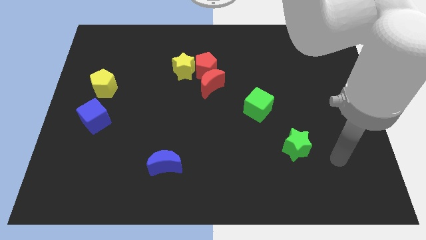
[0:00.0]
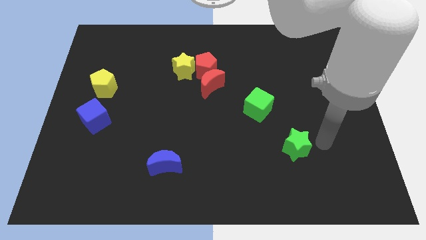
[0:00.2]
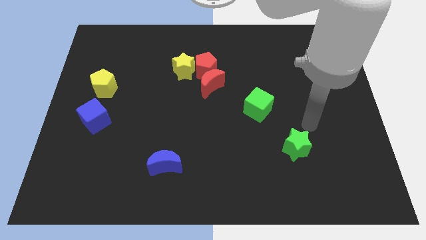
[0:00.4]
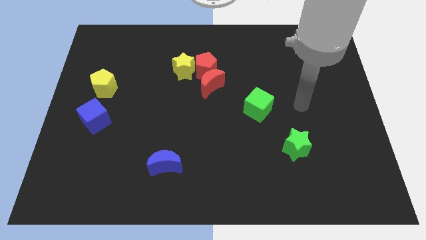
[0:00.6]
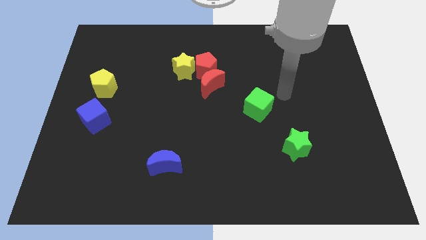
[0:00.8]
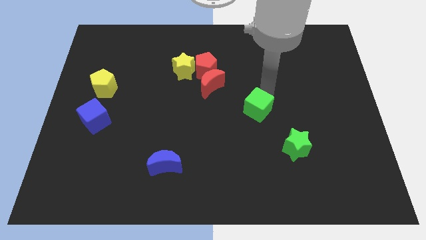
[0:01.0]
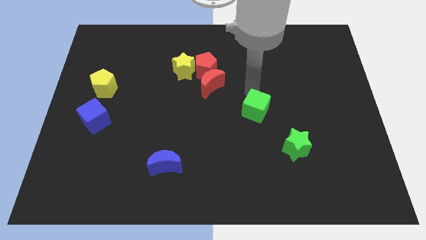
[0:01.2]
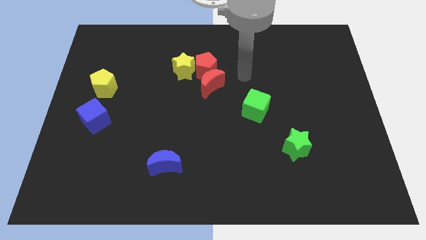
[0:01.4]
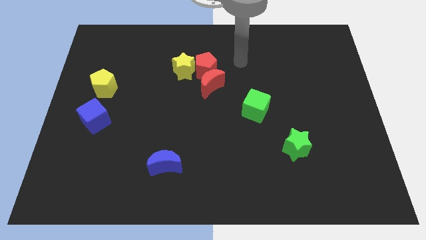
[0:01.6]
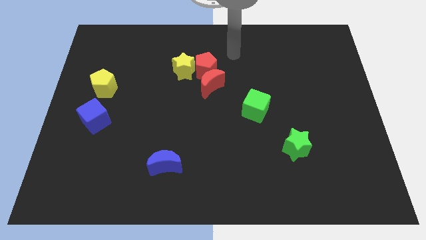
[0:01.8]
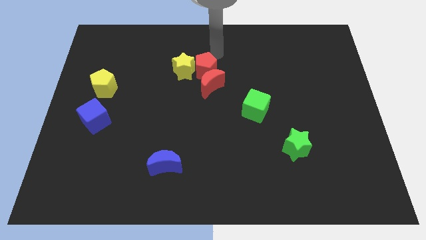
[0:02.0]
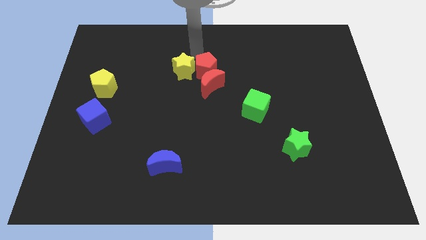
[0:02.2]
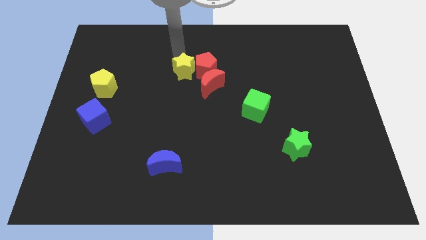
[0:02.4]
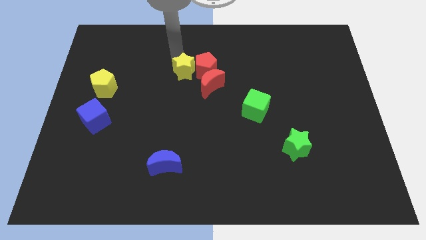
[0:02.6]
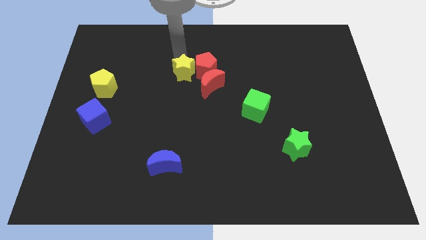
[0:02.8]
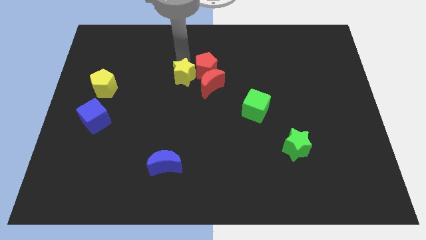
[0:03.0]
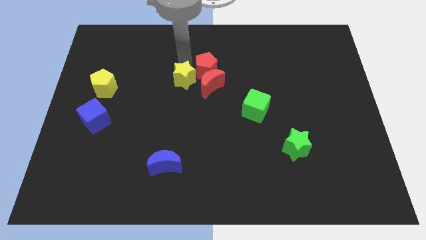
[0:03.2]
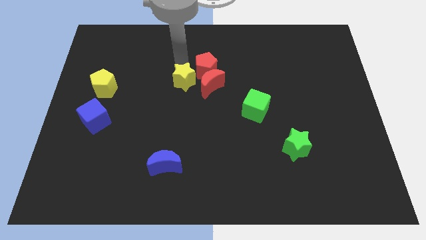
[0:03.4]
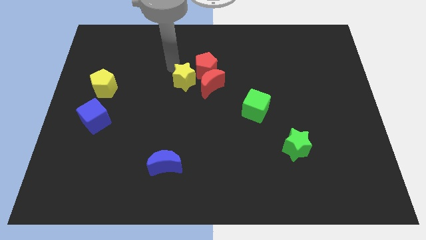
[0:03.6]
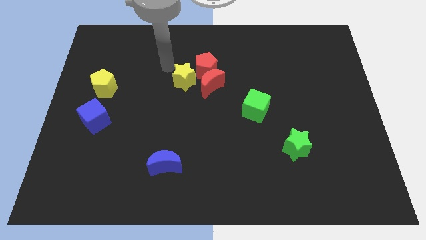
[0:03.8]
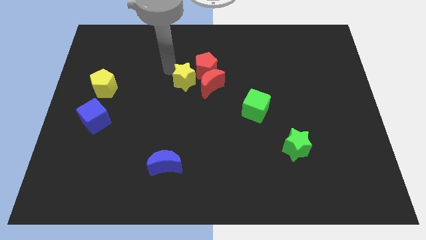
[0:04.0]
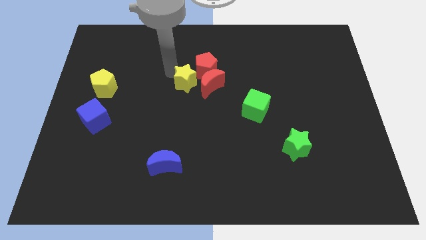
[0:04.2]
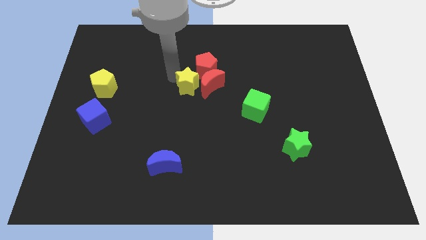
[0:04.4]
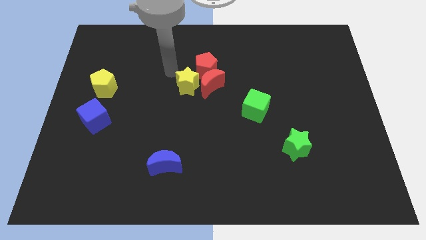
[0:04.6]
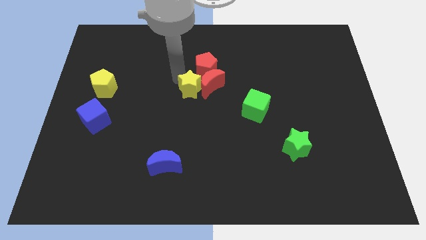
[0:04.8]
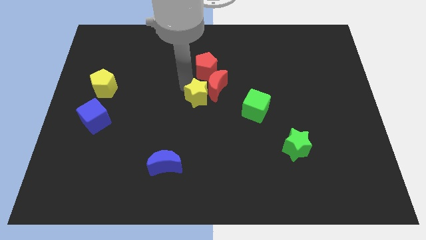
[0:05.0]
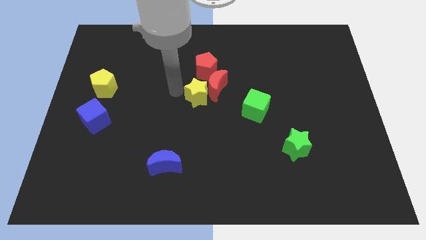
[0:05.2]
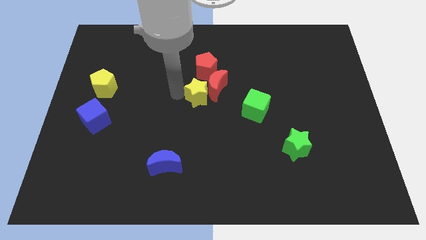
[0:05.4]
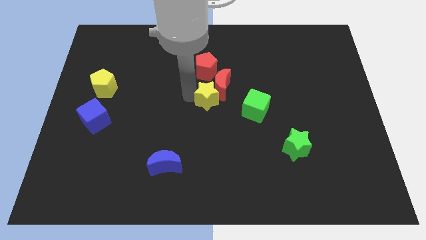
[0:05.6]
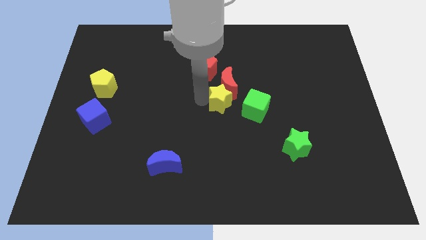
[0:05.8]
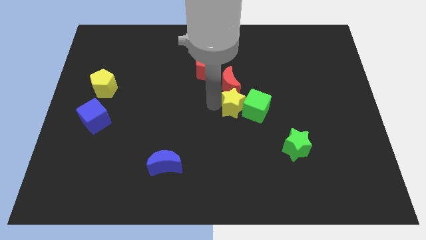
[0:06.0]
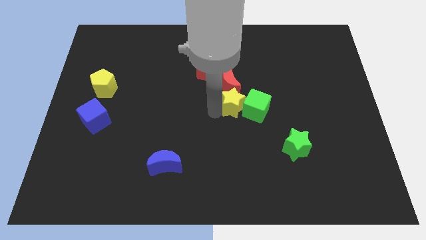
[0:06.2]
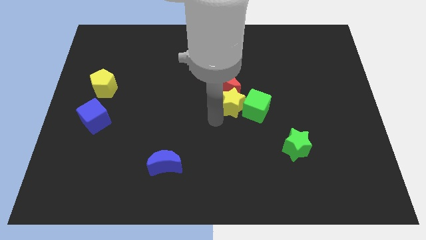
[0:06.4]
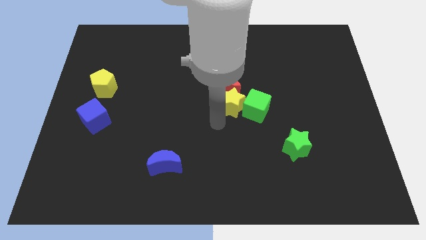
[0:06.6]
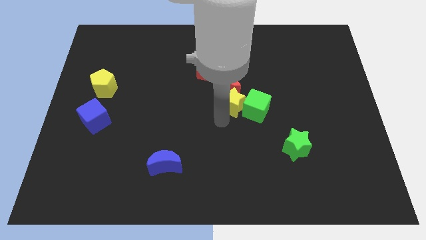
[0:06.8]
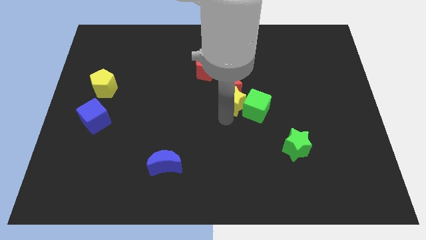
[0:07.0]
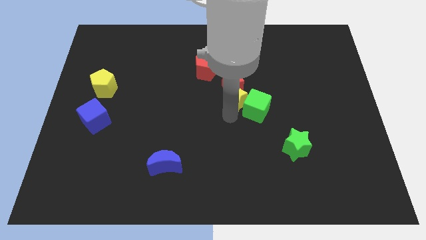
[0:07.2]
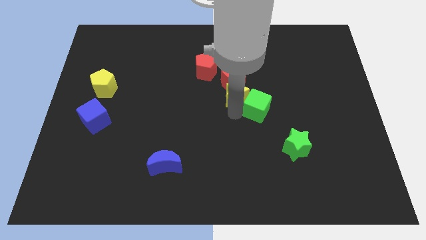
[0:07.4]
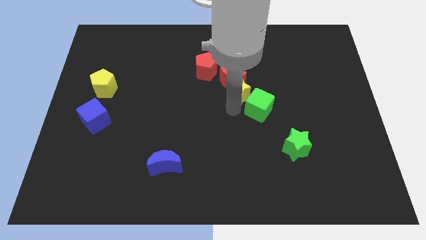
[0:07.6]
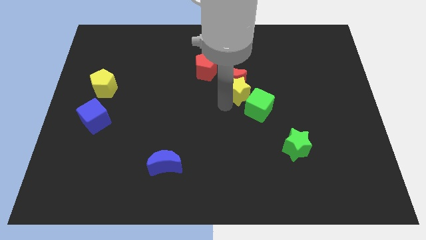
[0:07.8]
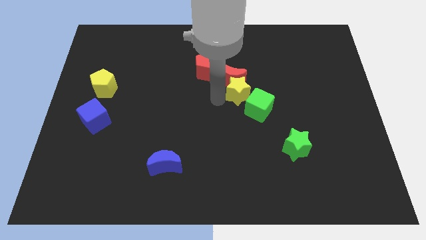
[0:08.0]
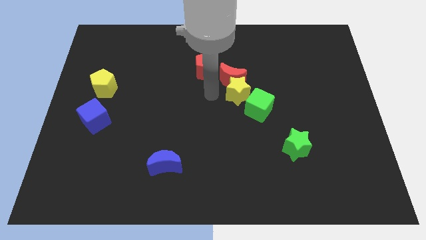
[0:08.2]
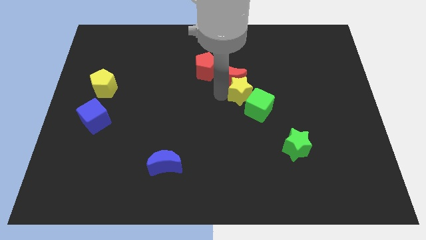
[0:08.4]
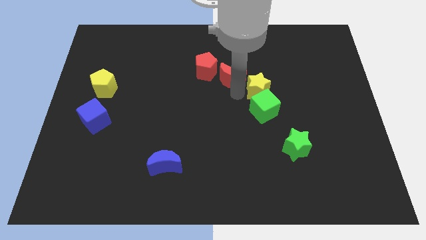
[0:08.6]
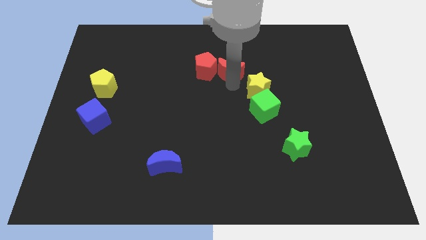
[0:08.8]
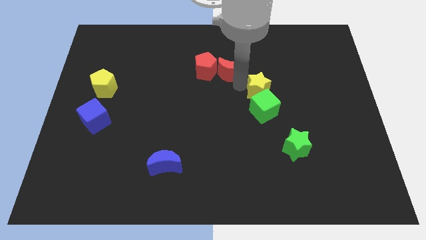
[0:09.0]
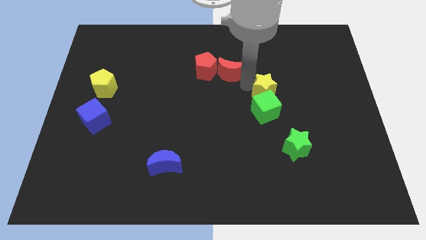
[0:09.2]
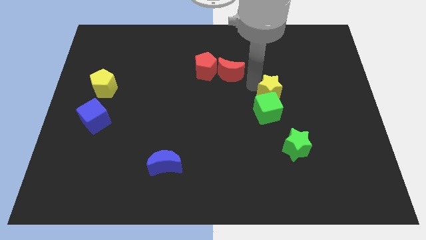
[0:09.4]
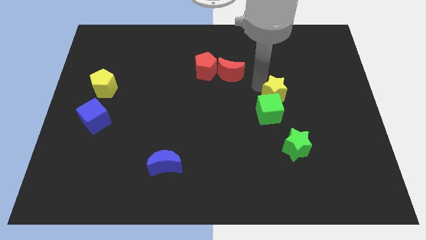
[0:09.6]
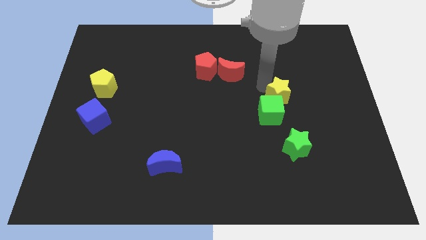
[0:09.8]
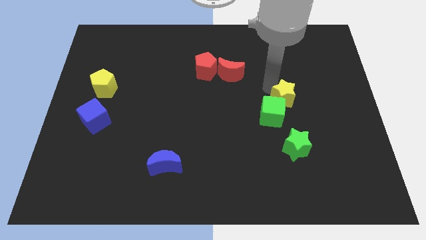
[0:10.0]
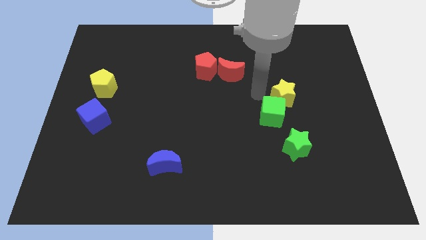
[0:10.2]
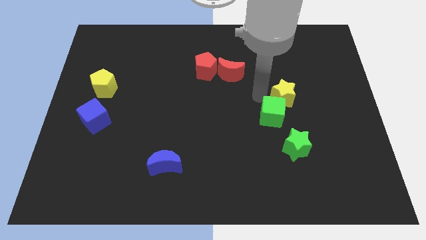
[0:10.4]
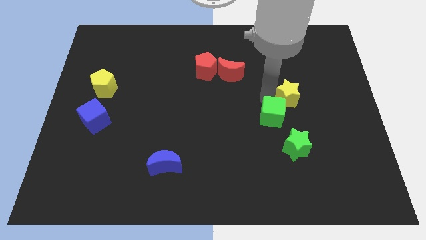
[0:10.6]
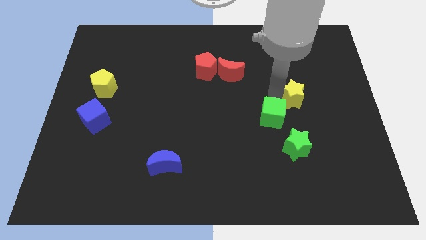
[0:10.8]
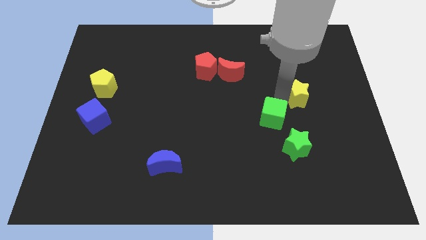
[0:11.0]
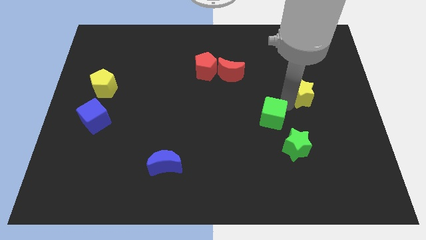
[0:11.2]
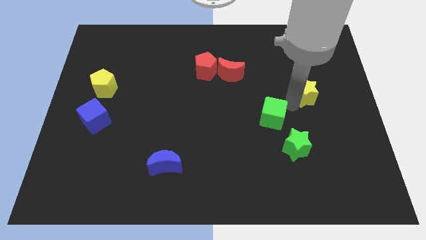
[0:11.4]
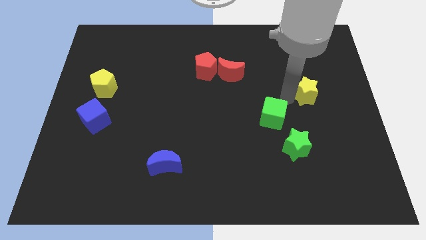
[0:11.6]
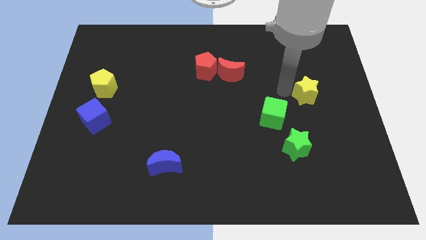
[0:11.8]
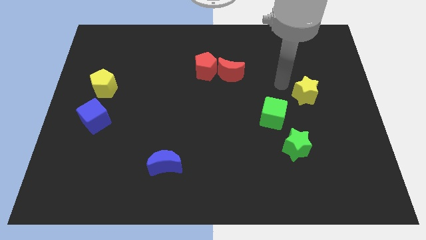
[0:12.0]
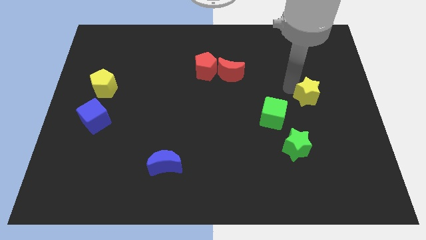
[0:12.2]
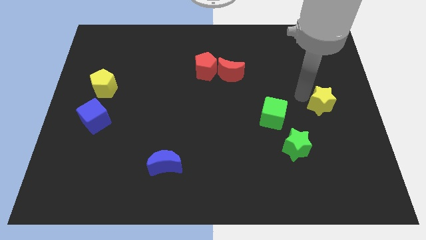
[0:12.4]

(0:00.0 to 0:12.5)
push the yellow star to the right side of the board
